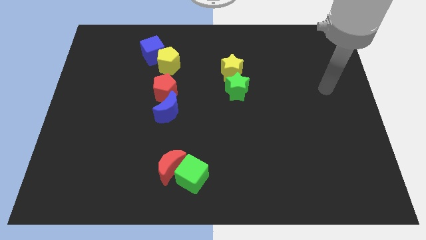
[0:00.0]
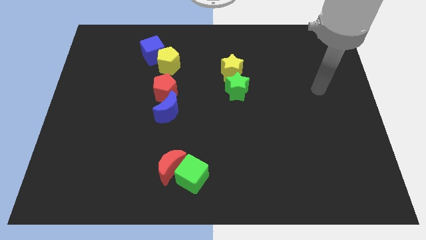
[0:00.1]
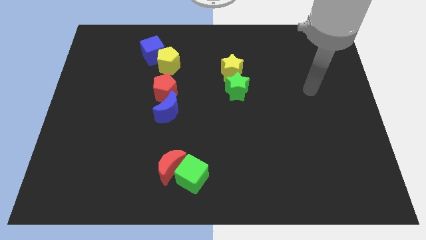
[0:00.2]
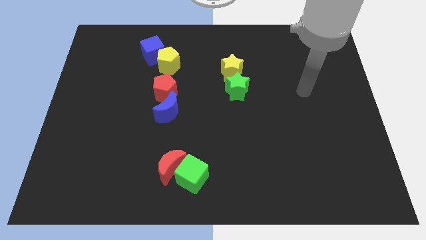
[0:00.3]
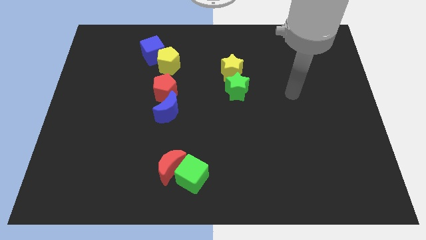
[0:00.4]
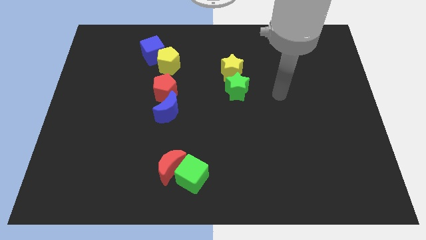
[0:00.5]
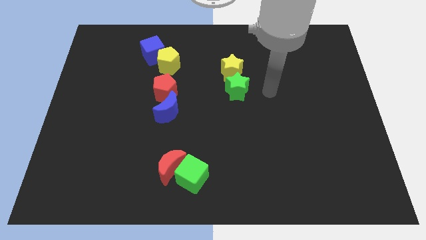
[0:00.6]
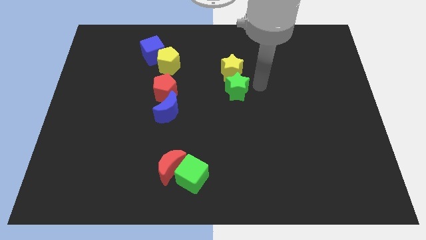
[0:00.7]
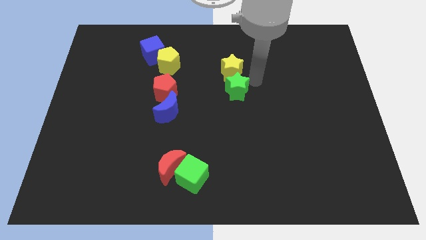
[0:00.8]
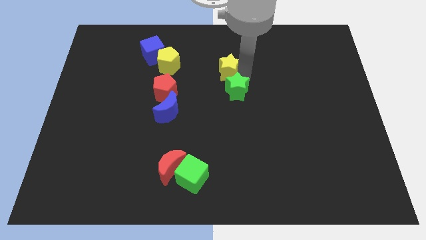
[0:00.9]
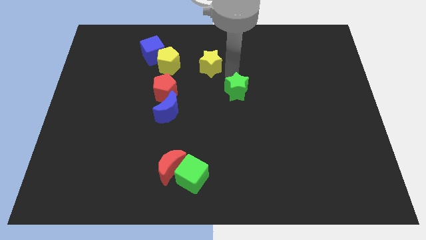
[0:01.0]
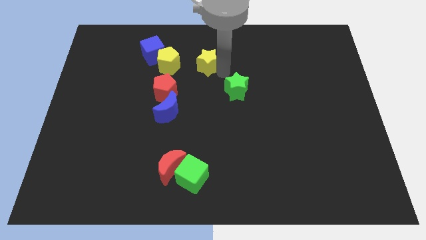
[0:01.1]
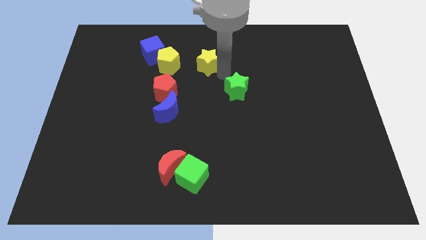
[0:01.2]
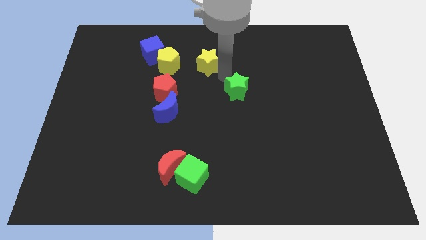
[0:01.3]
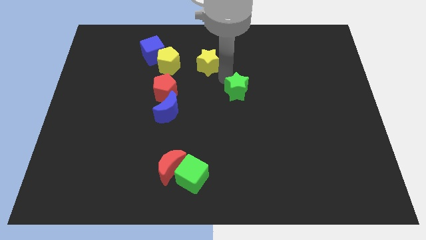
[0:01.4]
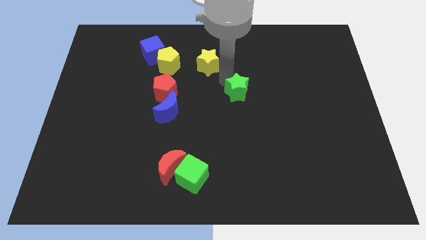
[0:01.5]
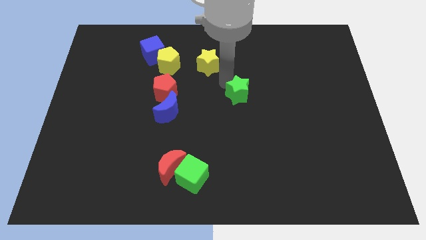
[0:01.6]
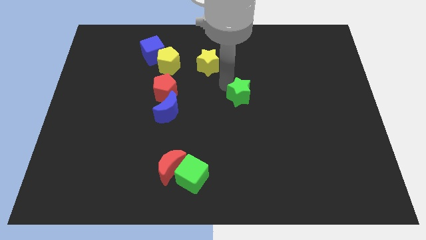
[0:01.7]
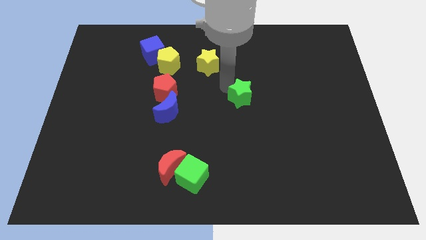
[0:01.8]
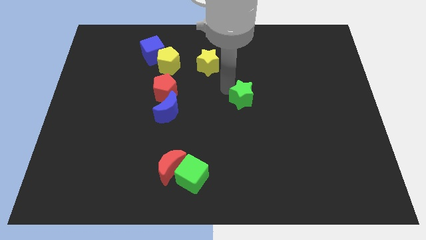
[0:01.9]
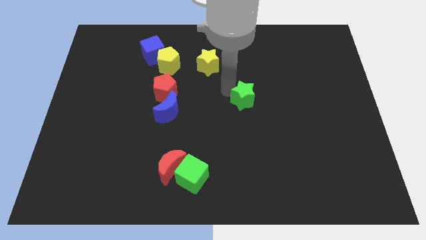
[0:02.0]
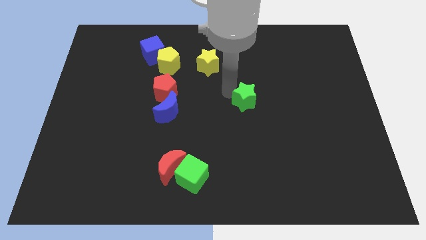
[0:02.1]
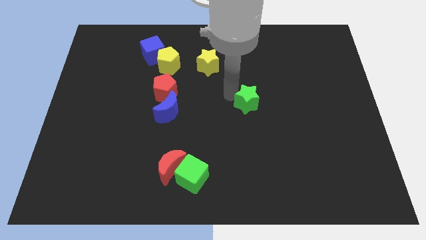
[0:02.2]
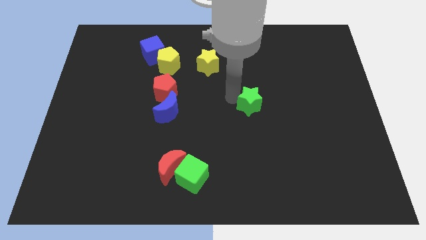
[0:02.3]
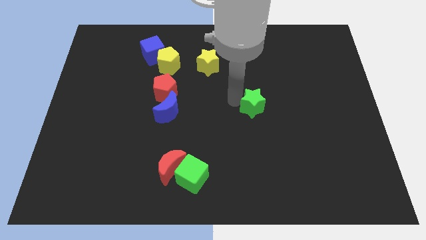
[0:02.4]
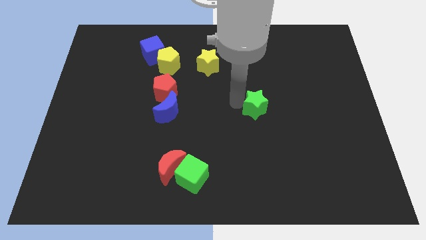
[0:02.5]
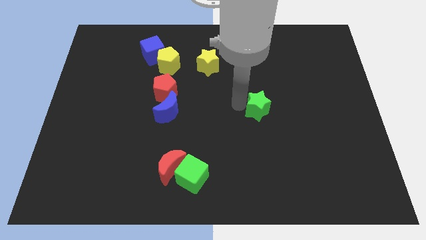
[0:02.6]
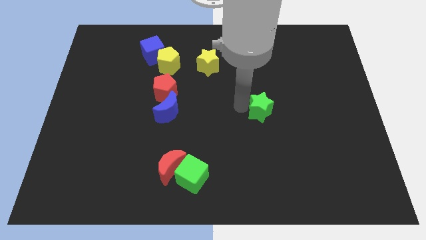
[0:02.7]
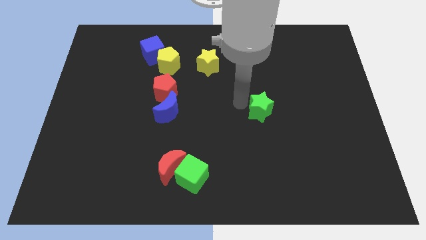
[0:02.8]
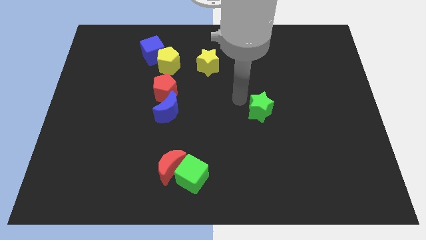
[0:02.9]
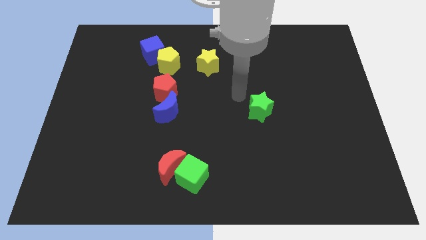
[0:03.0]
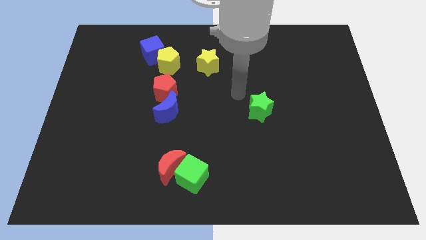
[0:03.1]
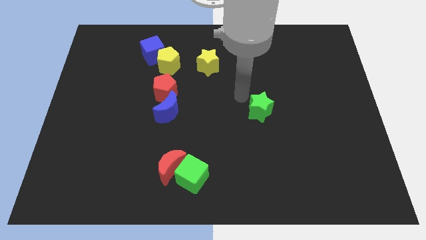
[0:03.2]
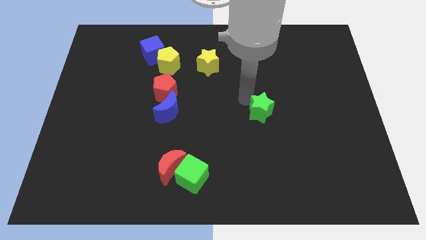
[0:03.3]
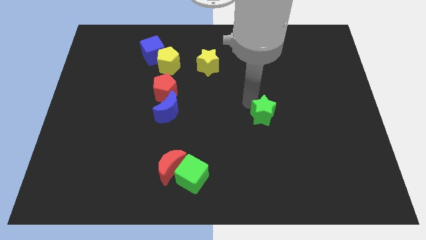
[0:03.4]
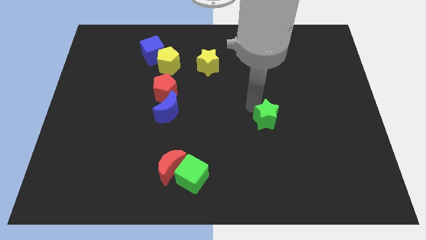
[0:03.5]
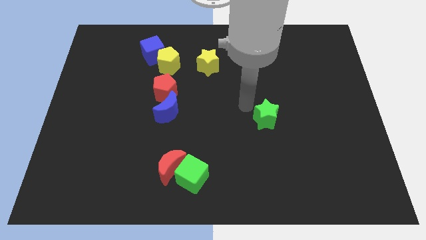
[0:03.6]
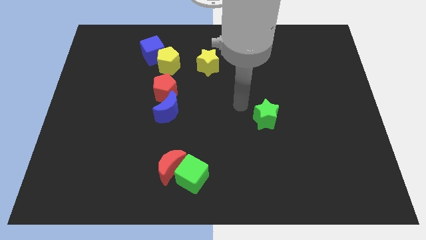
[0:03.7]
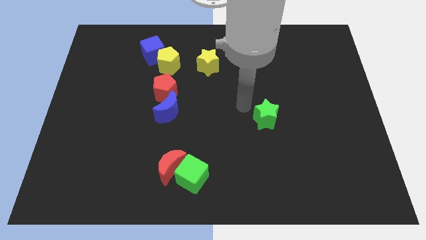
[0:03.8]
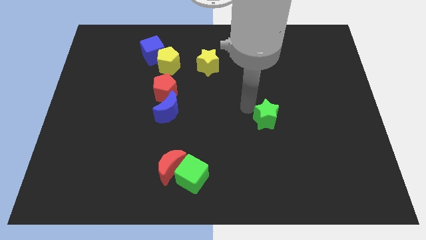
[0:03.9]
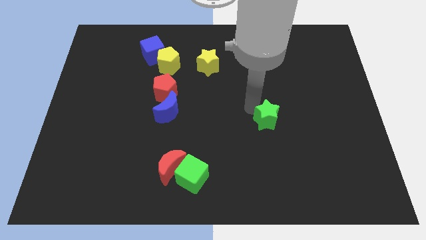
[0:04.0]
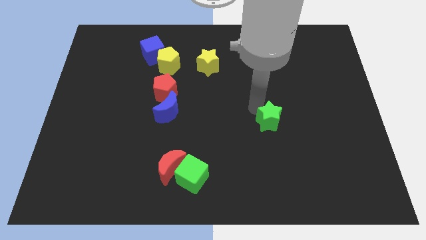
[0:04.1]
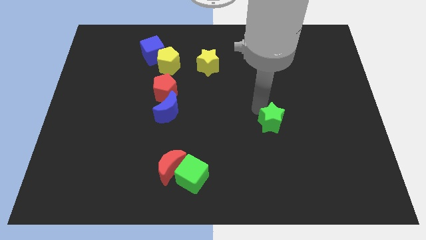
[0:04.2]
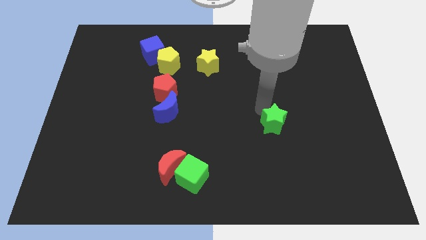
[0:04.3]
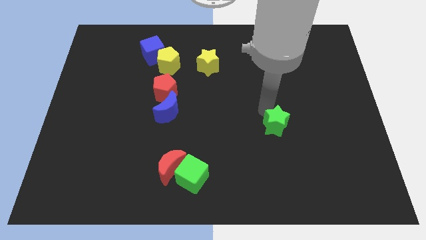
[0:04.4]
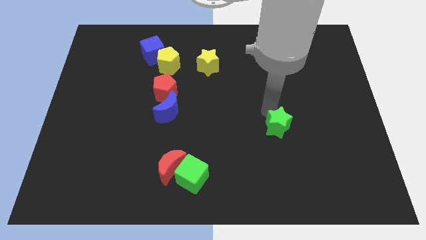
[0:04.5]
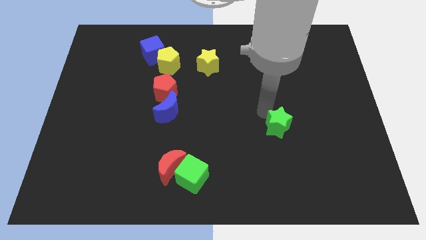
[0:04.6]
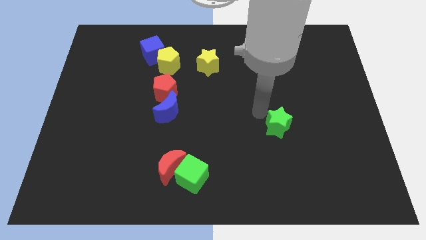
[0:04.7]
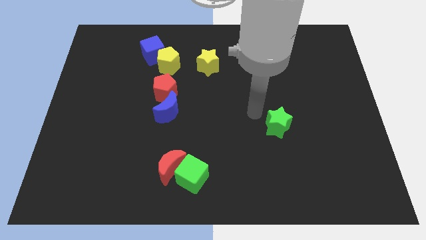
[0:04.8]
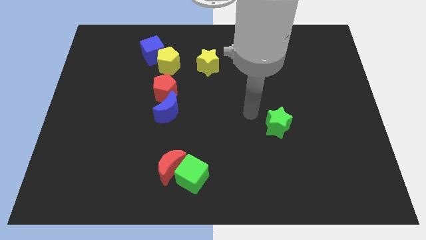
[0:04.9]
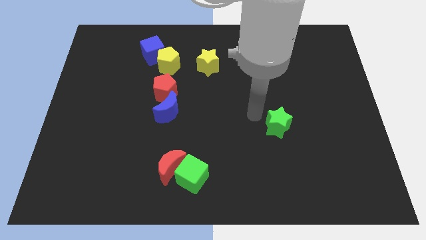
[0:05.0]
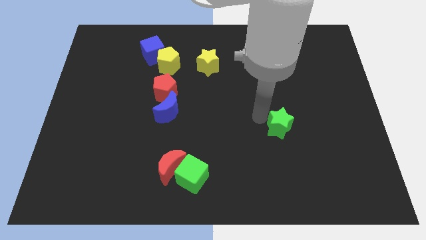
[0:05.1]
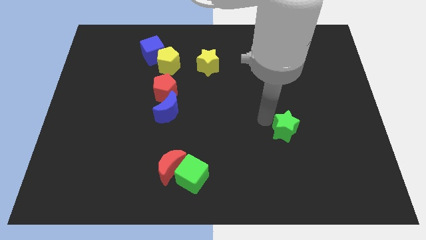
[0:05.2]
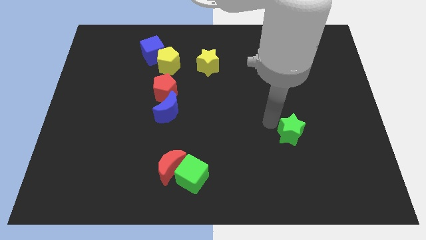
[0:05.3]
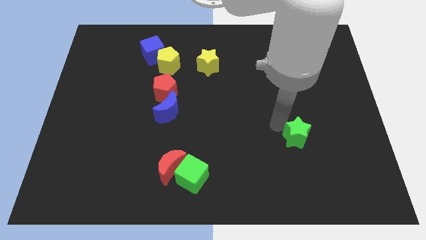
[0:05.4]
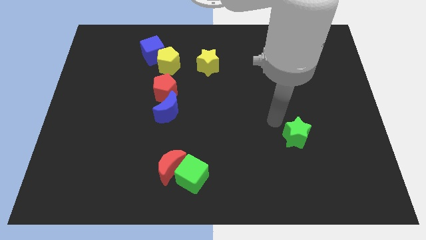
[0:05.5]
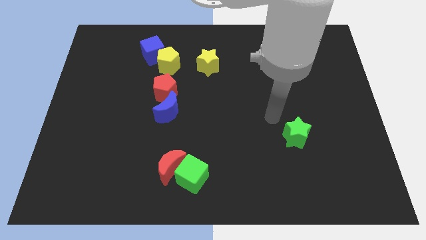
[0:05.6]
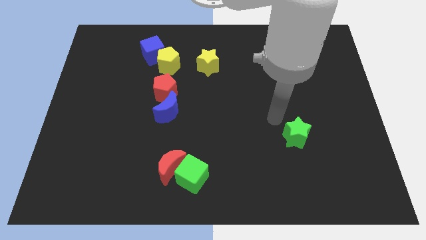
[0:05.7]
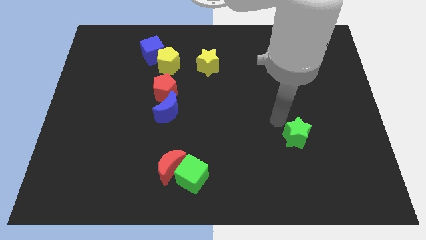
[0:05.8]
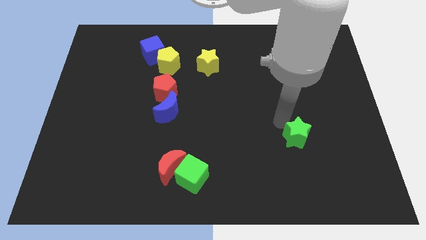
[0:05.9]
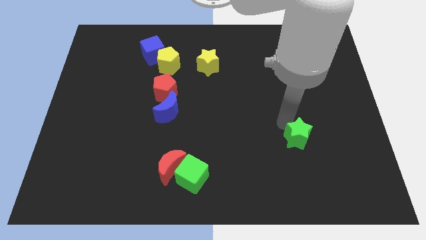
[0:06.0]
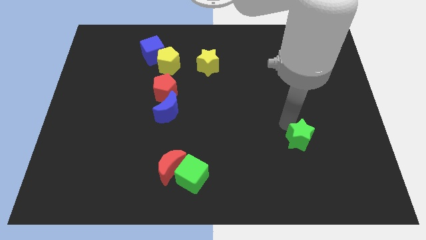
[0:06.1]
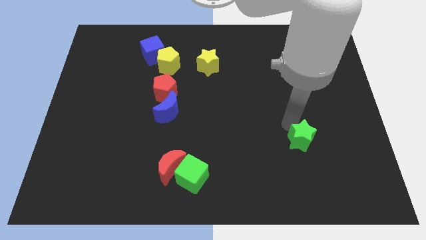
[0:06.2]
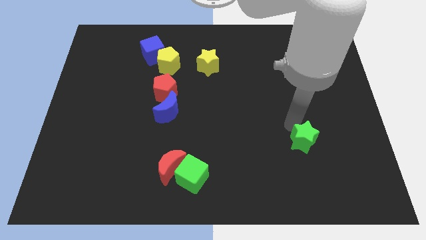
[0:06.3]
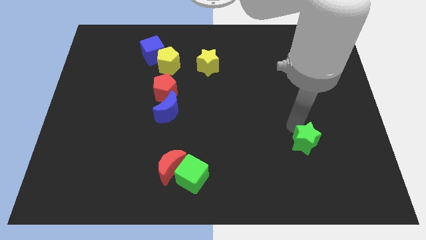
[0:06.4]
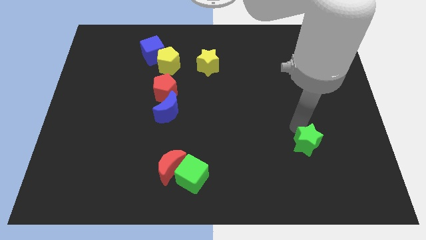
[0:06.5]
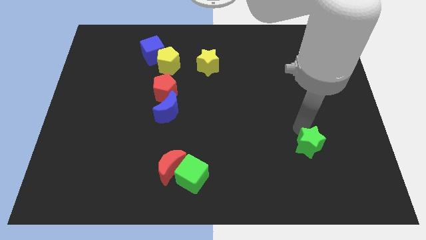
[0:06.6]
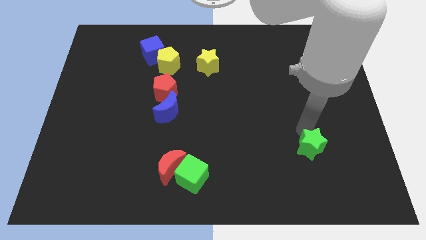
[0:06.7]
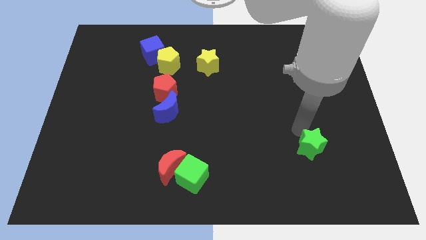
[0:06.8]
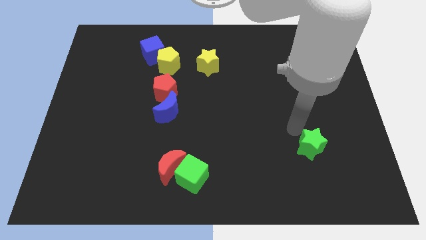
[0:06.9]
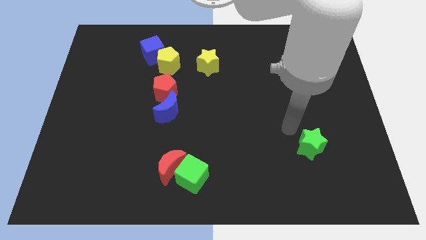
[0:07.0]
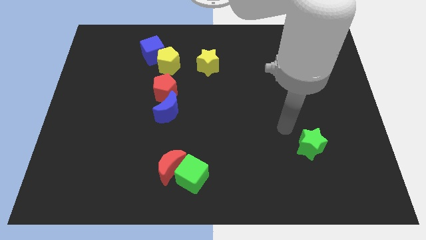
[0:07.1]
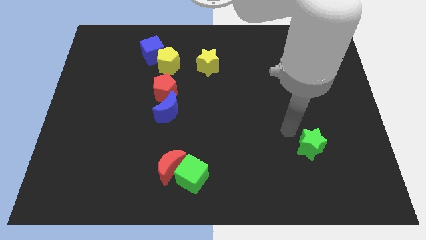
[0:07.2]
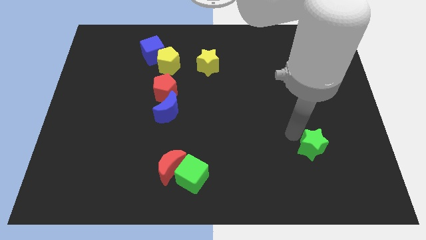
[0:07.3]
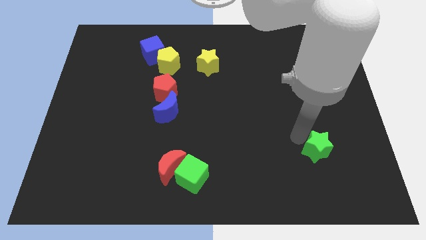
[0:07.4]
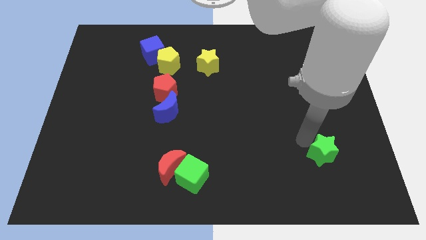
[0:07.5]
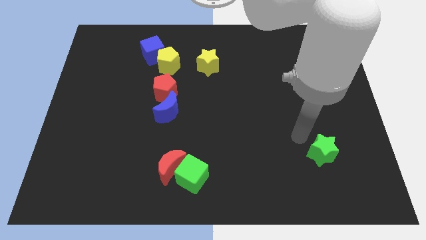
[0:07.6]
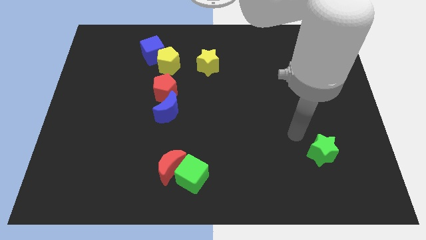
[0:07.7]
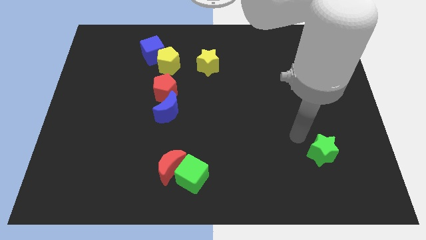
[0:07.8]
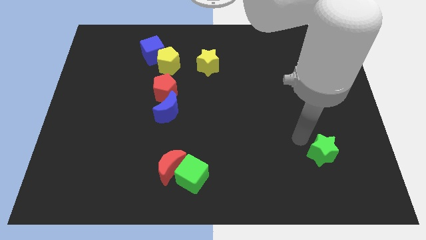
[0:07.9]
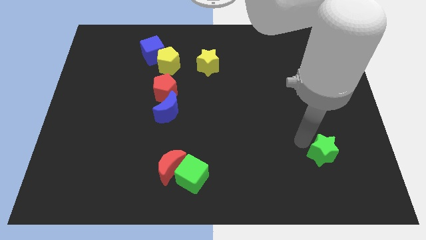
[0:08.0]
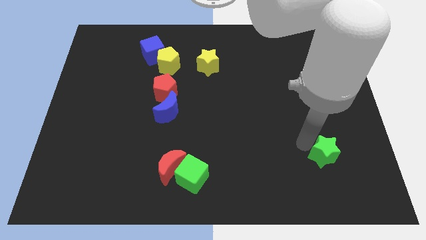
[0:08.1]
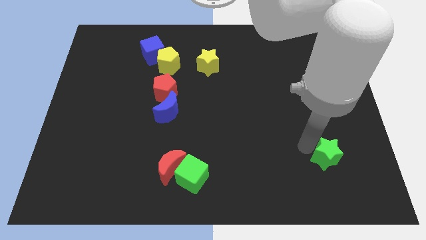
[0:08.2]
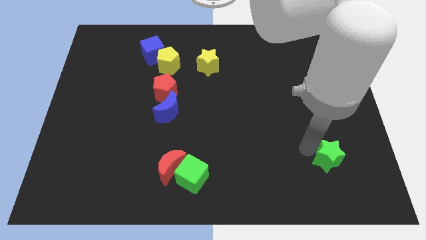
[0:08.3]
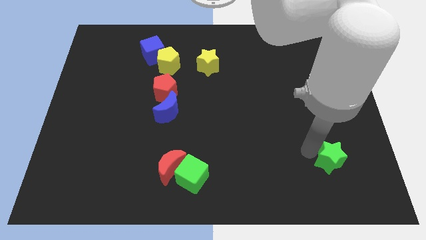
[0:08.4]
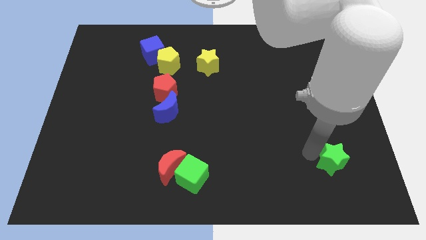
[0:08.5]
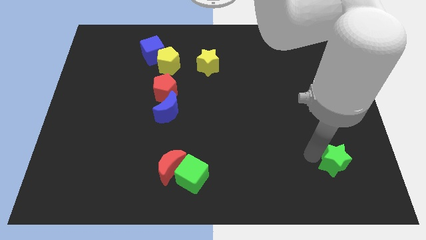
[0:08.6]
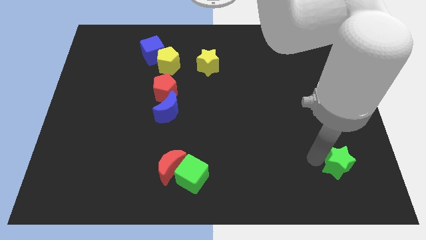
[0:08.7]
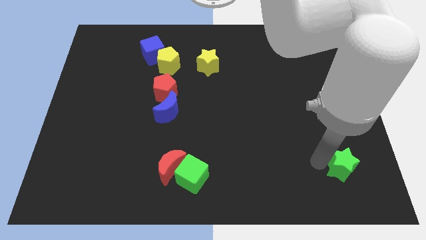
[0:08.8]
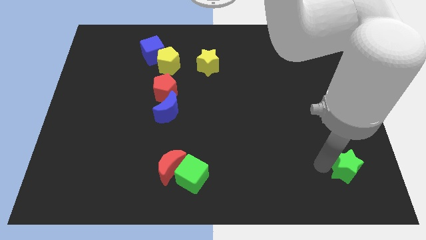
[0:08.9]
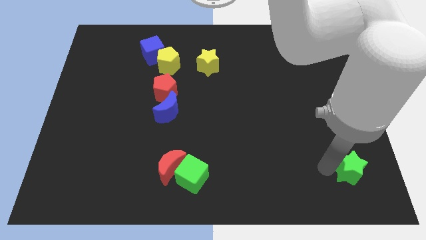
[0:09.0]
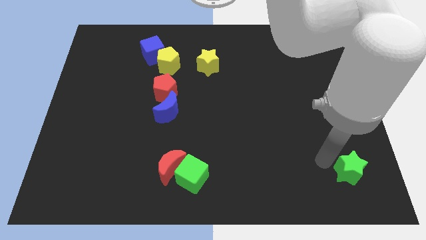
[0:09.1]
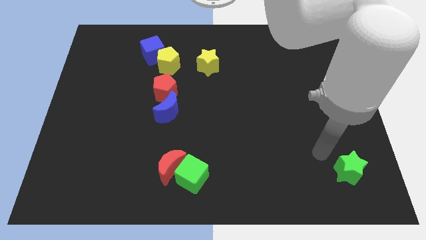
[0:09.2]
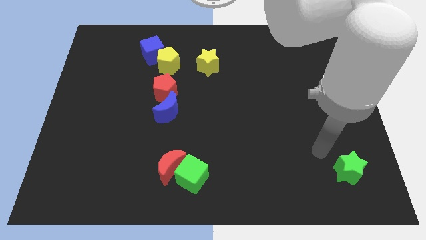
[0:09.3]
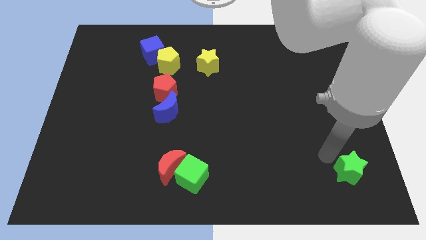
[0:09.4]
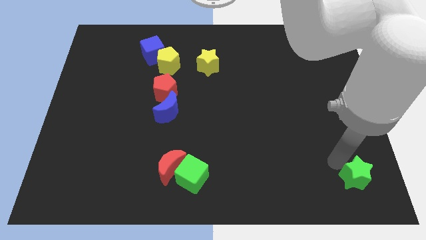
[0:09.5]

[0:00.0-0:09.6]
move the green star to the bottom right corner
